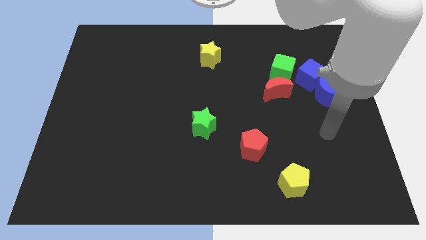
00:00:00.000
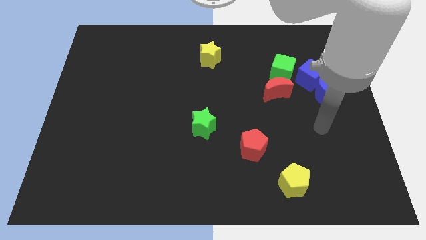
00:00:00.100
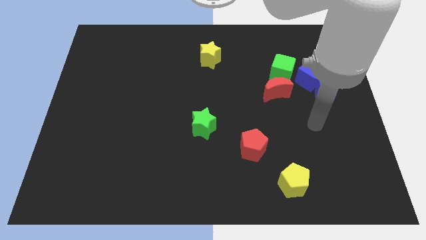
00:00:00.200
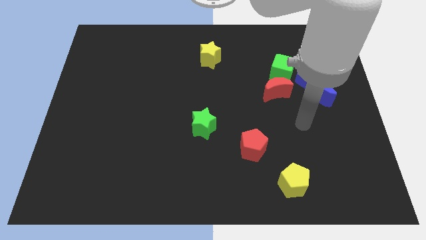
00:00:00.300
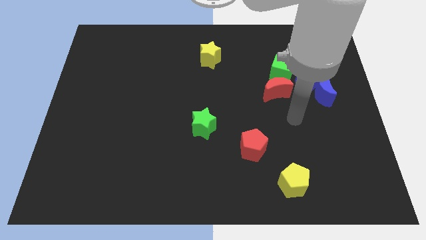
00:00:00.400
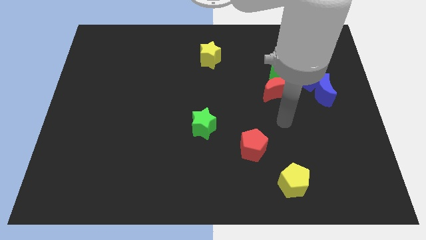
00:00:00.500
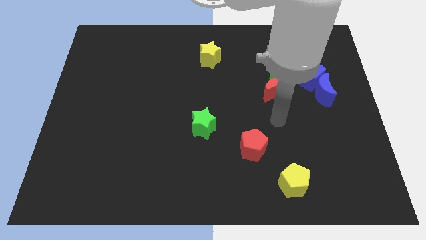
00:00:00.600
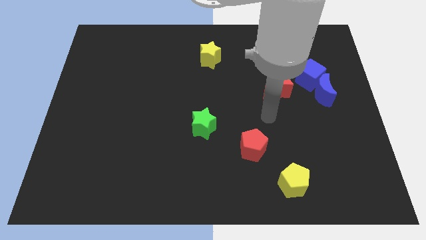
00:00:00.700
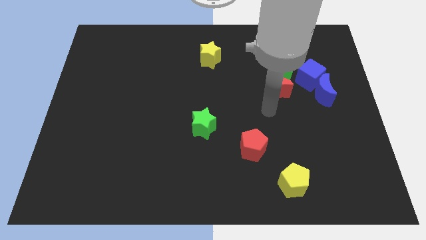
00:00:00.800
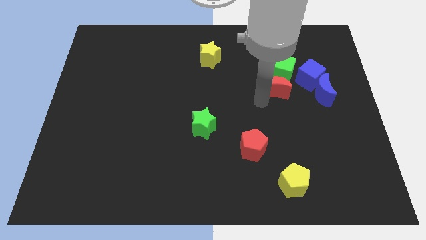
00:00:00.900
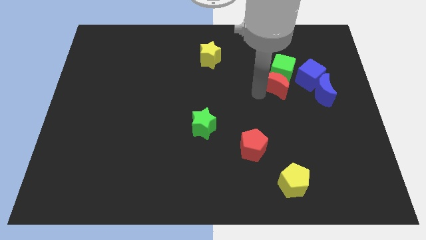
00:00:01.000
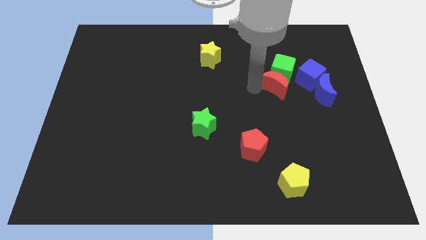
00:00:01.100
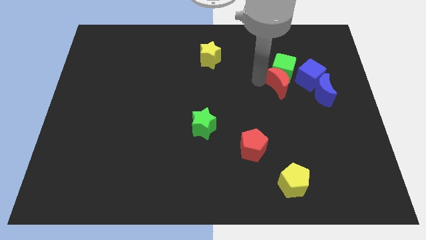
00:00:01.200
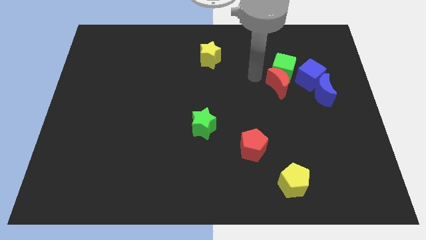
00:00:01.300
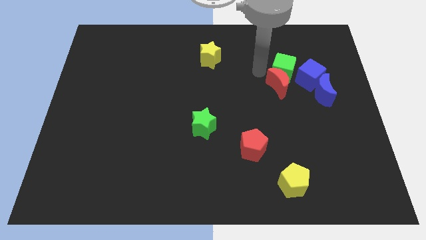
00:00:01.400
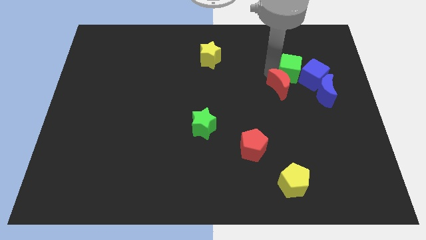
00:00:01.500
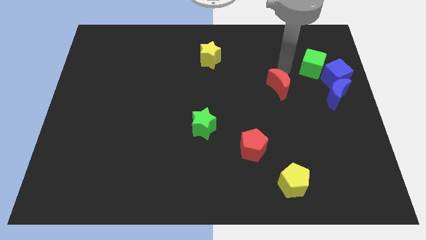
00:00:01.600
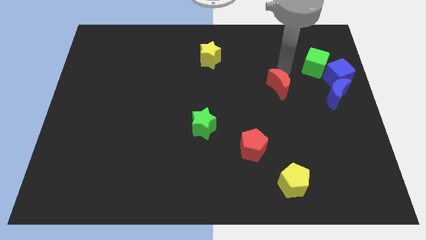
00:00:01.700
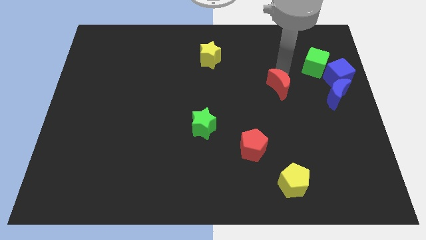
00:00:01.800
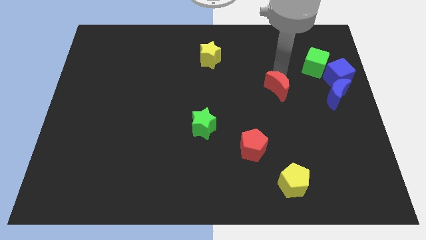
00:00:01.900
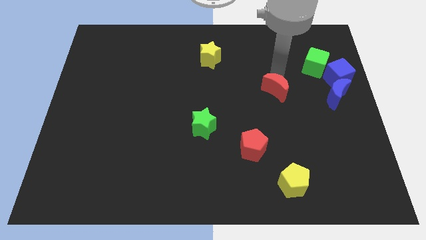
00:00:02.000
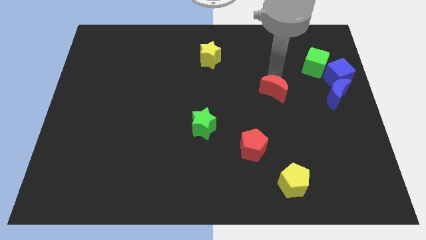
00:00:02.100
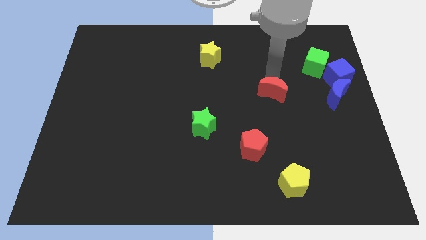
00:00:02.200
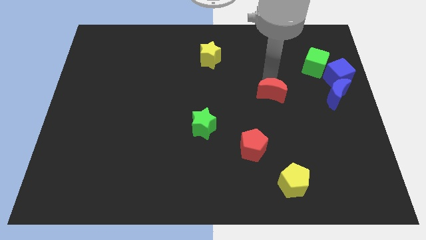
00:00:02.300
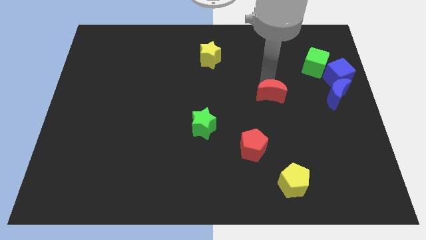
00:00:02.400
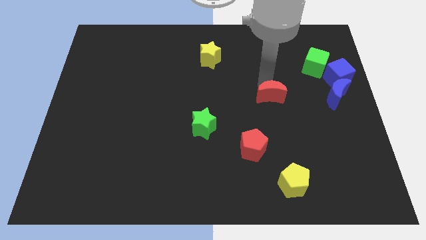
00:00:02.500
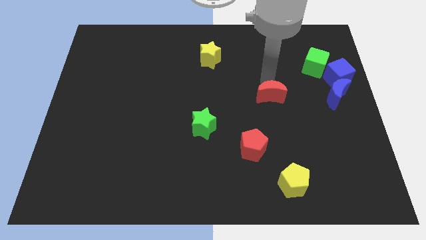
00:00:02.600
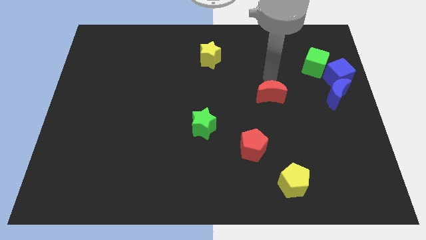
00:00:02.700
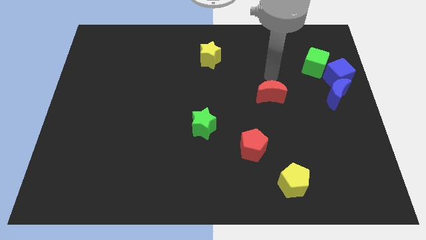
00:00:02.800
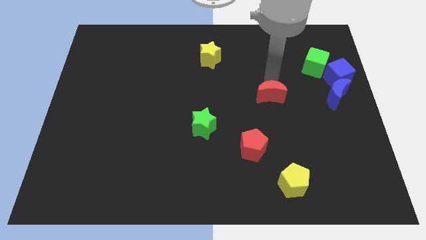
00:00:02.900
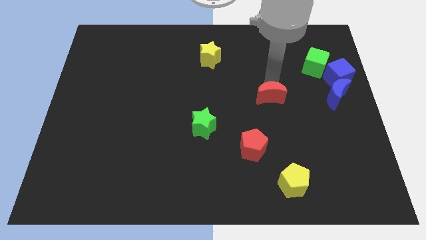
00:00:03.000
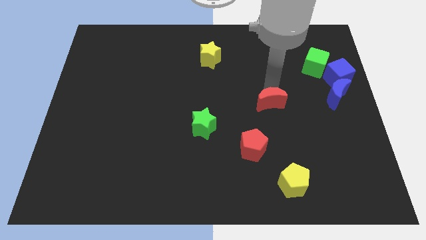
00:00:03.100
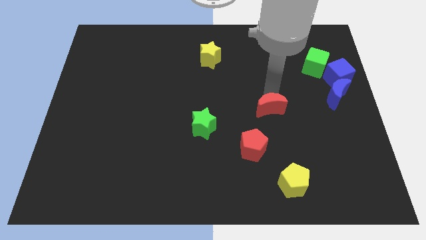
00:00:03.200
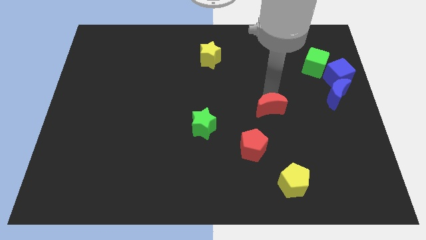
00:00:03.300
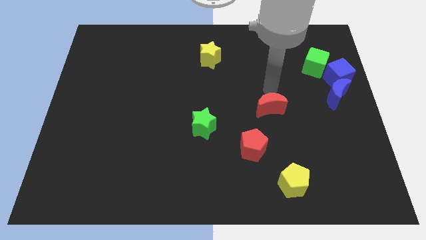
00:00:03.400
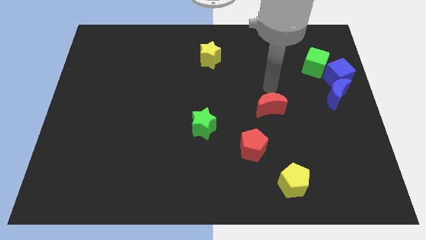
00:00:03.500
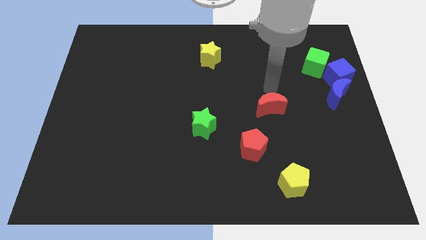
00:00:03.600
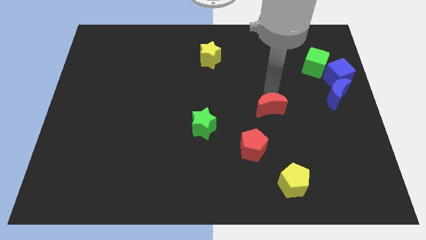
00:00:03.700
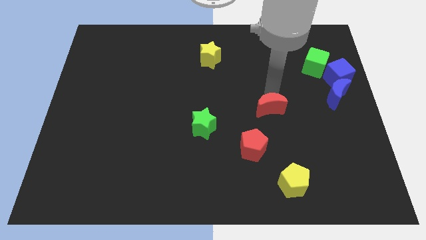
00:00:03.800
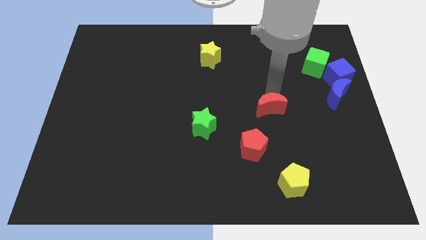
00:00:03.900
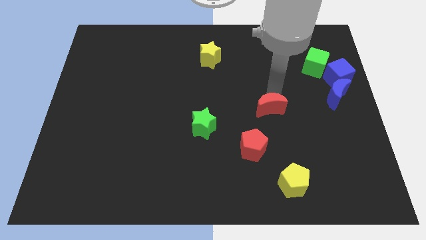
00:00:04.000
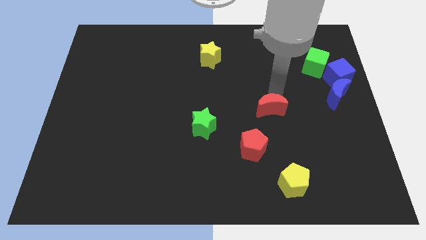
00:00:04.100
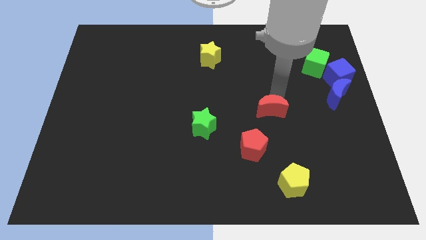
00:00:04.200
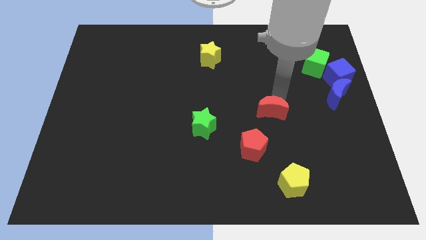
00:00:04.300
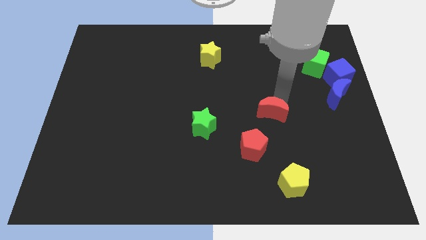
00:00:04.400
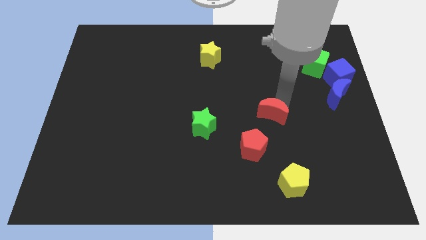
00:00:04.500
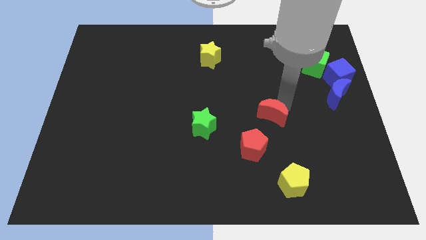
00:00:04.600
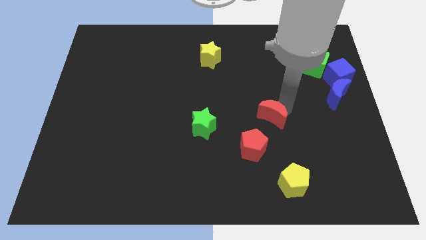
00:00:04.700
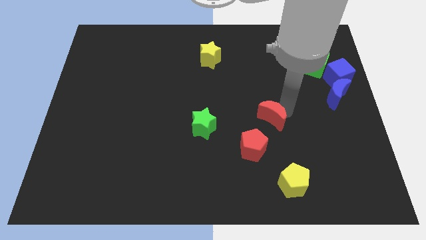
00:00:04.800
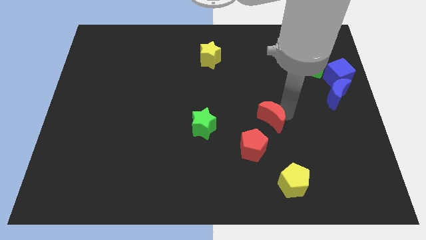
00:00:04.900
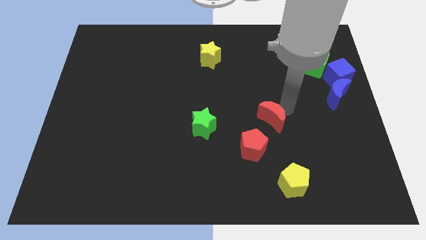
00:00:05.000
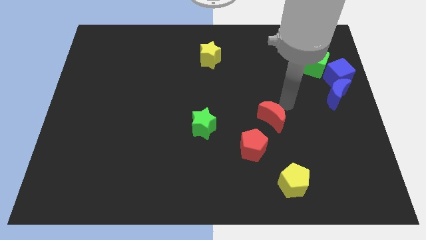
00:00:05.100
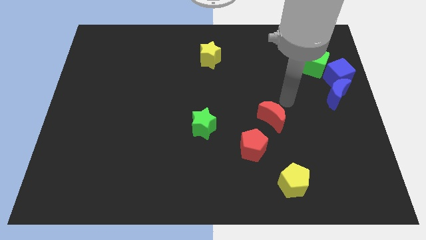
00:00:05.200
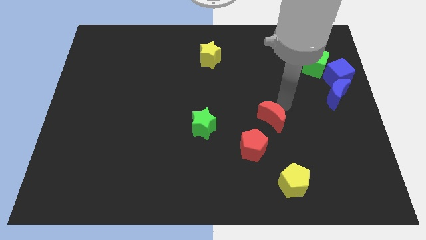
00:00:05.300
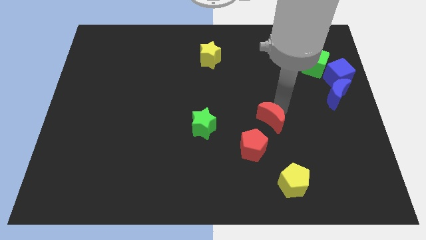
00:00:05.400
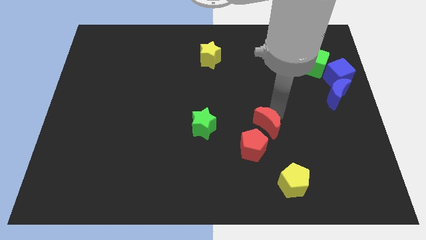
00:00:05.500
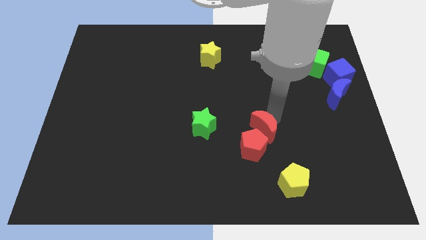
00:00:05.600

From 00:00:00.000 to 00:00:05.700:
slide the red moon towards the red pentagon

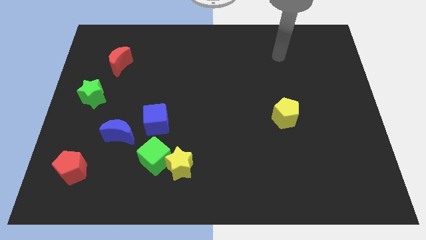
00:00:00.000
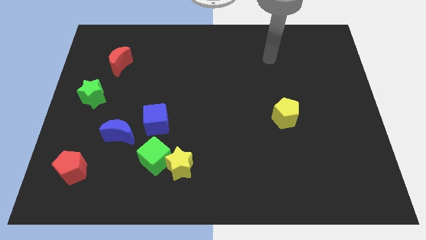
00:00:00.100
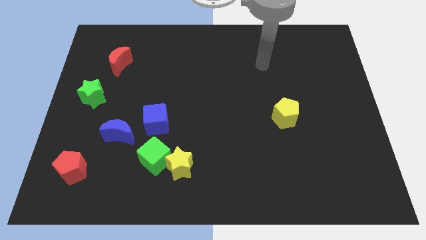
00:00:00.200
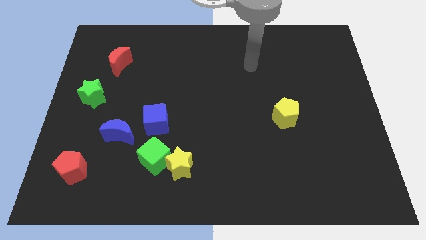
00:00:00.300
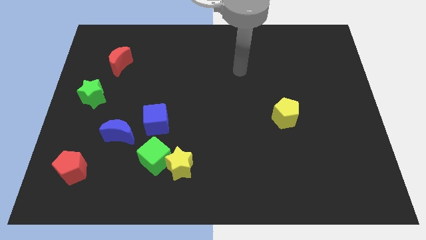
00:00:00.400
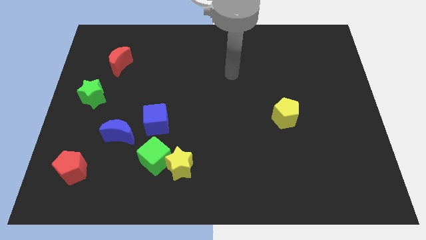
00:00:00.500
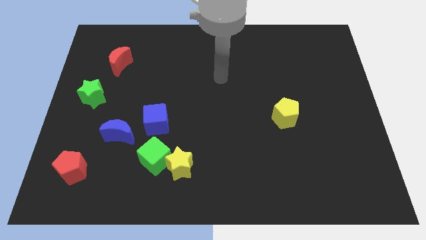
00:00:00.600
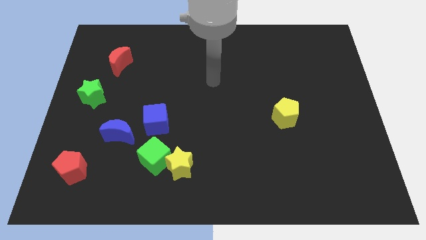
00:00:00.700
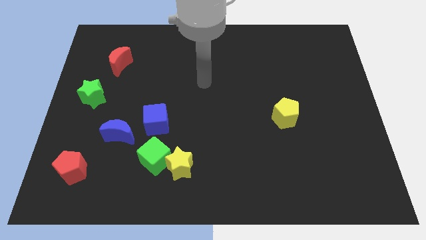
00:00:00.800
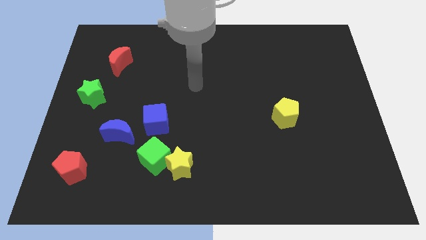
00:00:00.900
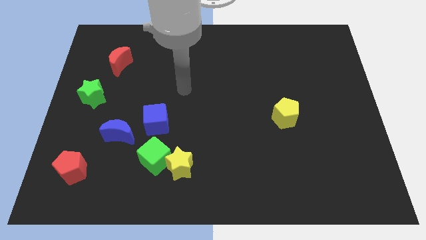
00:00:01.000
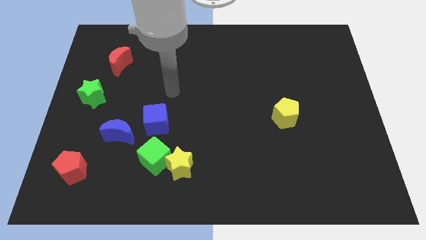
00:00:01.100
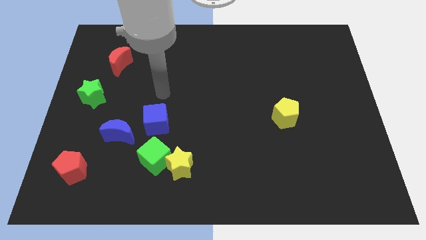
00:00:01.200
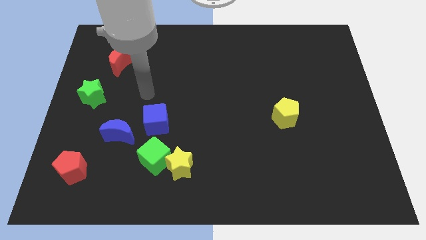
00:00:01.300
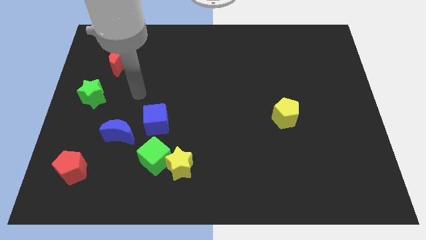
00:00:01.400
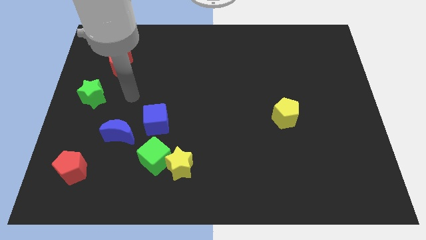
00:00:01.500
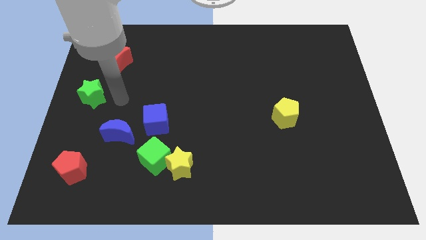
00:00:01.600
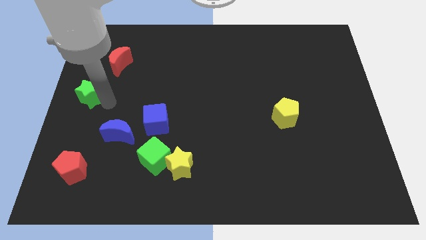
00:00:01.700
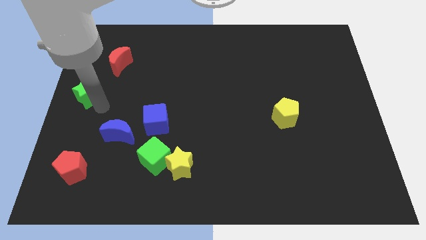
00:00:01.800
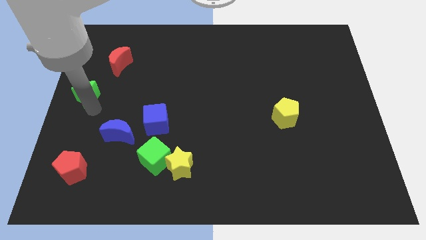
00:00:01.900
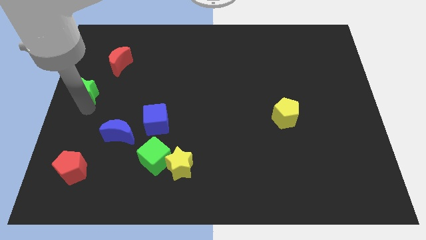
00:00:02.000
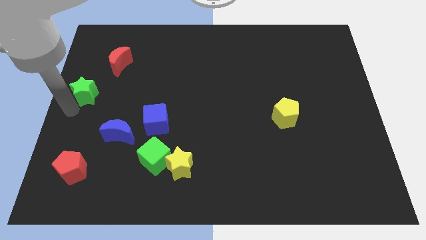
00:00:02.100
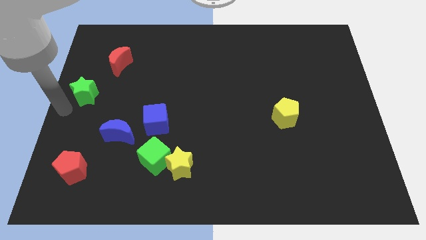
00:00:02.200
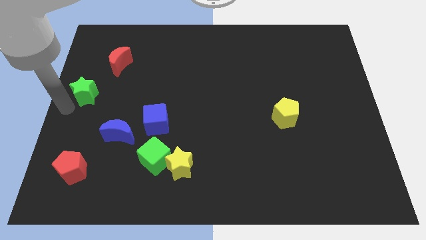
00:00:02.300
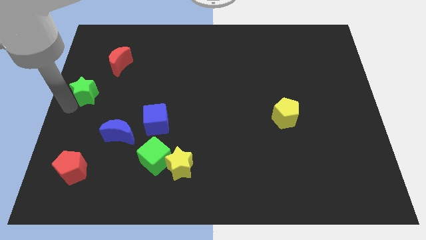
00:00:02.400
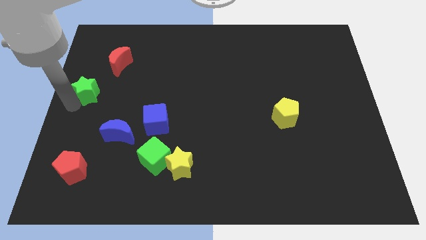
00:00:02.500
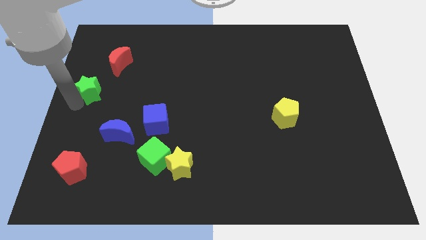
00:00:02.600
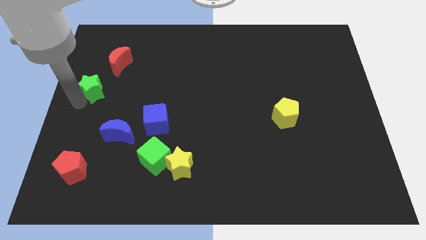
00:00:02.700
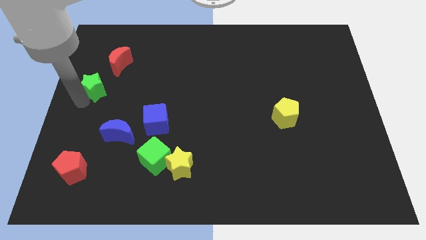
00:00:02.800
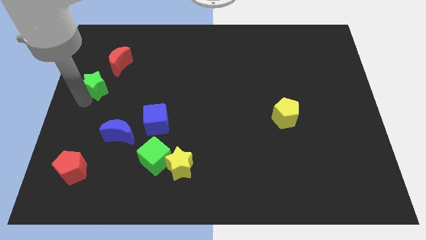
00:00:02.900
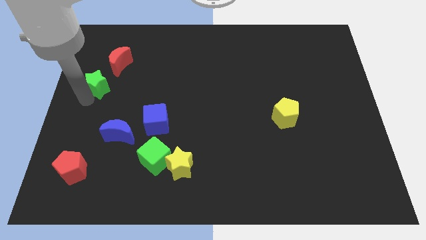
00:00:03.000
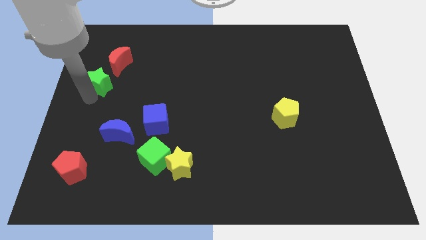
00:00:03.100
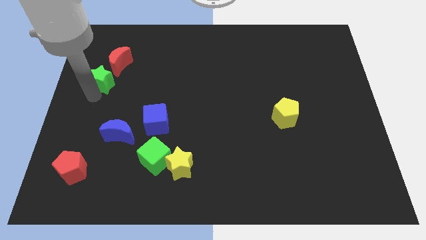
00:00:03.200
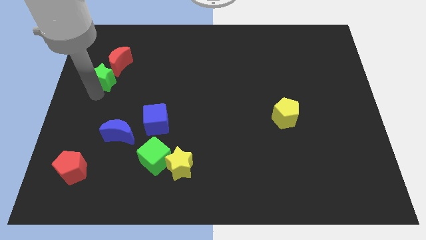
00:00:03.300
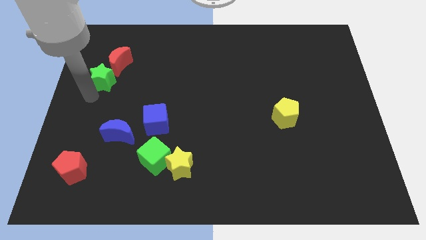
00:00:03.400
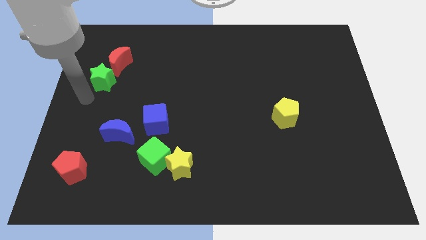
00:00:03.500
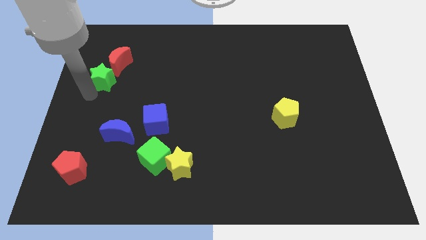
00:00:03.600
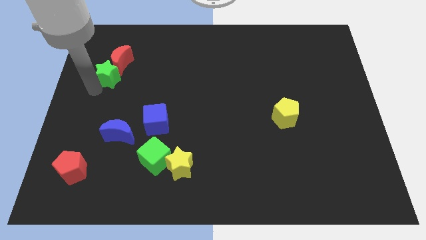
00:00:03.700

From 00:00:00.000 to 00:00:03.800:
slide the green star close to the red moon
